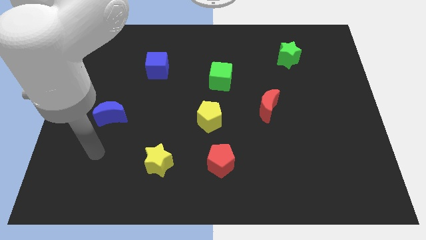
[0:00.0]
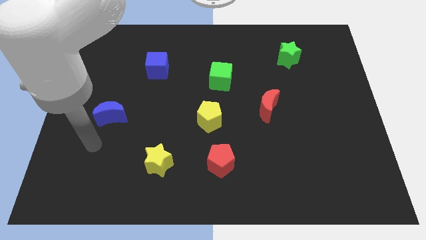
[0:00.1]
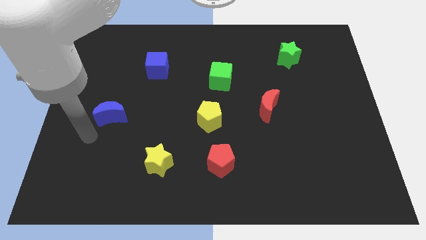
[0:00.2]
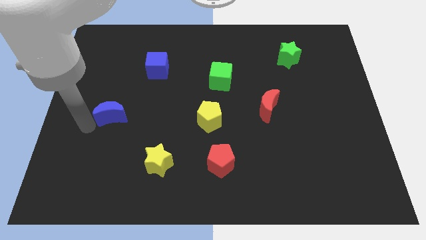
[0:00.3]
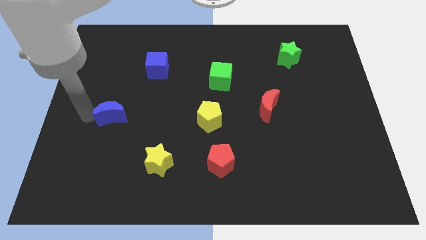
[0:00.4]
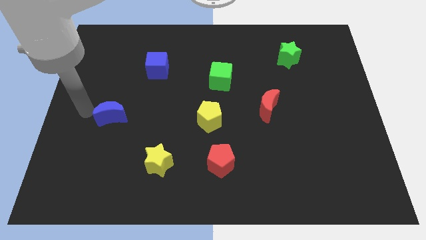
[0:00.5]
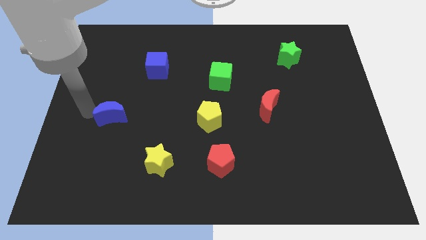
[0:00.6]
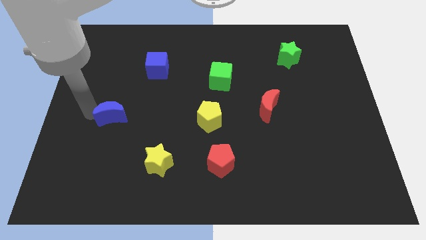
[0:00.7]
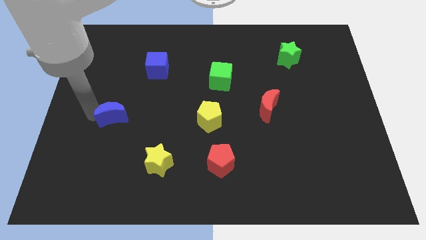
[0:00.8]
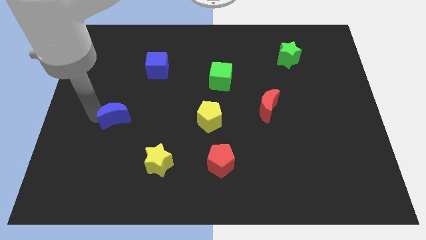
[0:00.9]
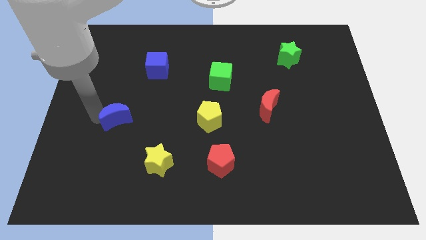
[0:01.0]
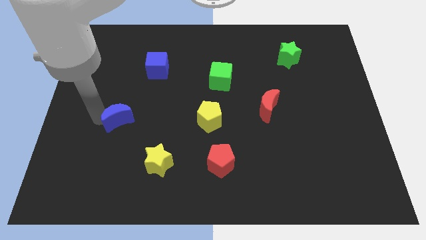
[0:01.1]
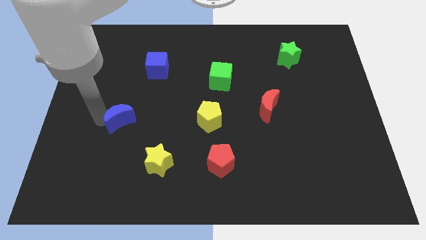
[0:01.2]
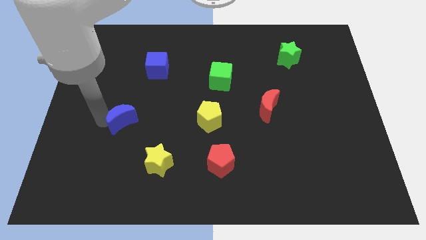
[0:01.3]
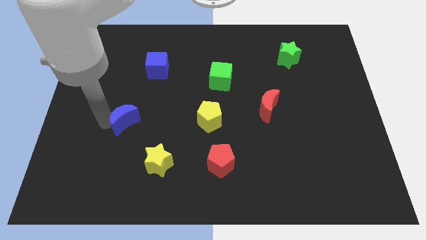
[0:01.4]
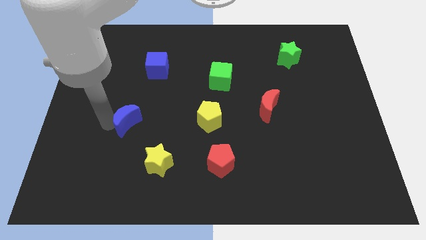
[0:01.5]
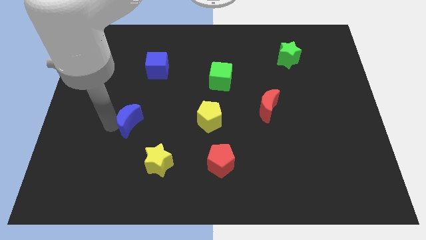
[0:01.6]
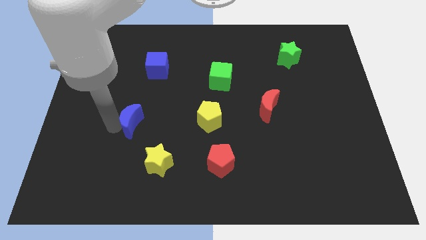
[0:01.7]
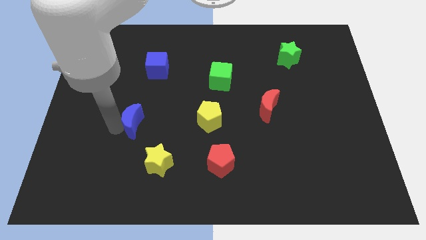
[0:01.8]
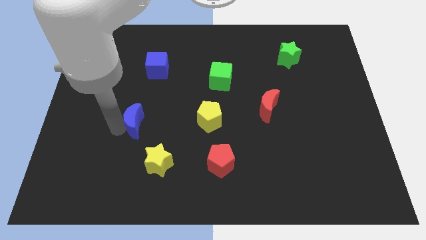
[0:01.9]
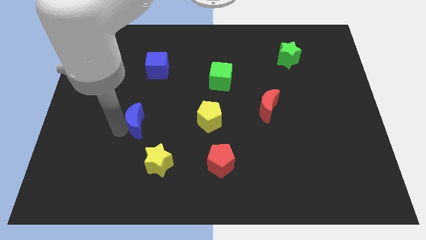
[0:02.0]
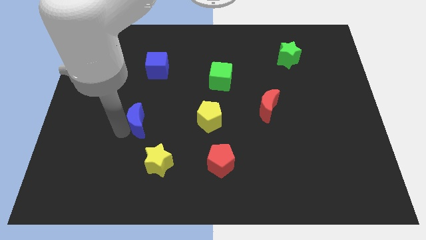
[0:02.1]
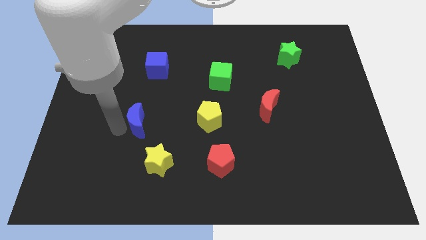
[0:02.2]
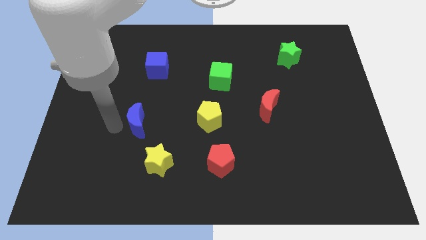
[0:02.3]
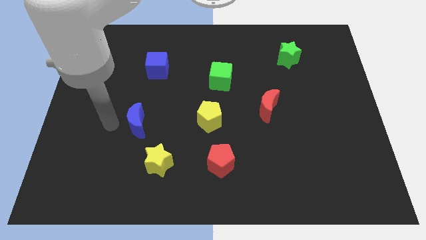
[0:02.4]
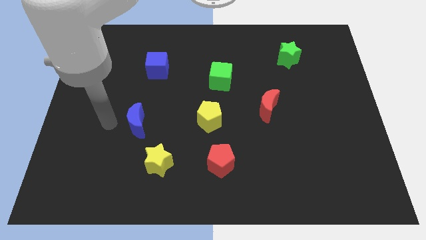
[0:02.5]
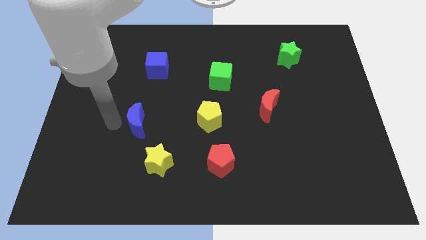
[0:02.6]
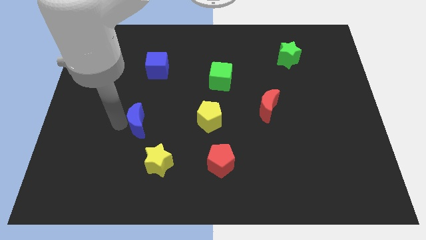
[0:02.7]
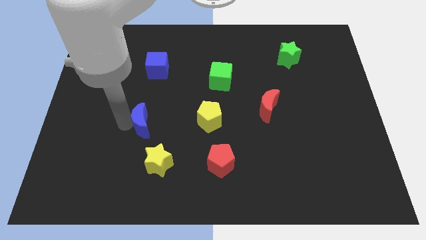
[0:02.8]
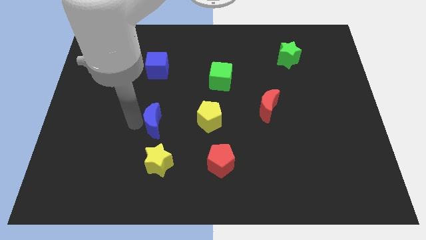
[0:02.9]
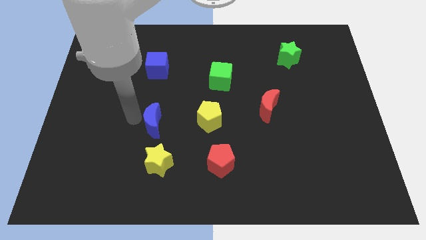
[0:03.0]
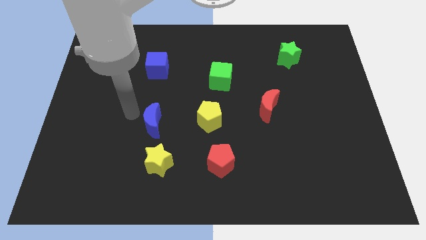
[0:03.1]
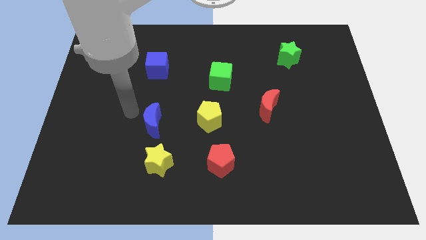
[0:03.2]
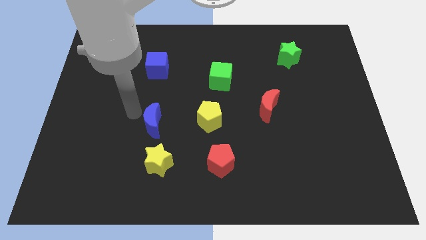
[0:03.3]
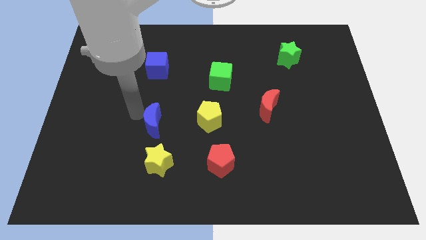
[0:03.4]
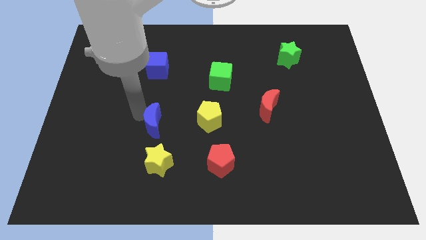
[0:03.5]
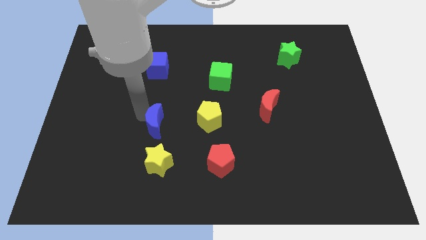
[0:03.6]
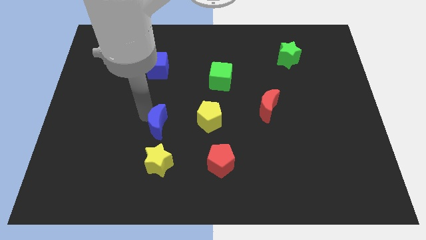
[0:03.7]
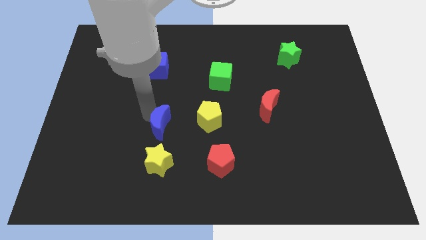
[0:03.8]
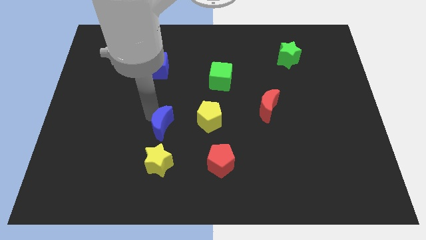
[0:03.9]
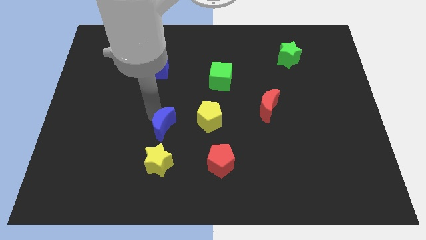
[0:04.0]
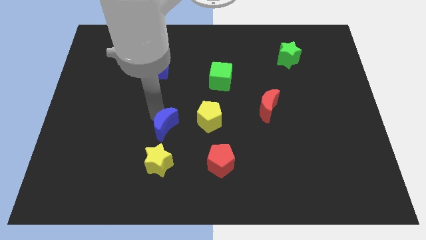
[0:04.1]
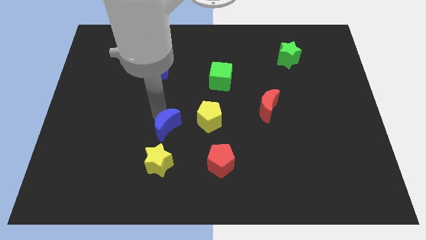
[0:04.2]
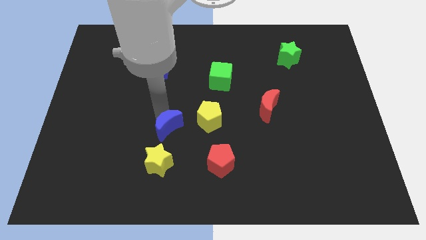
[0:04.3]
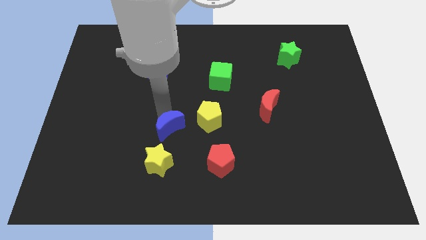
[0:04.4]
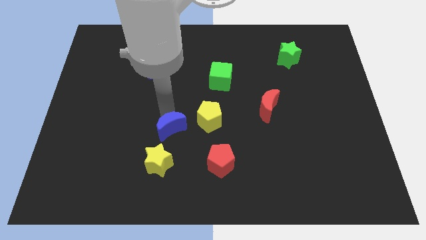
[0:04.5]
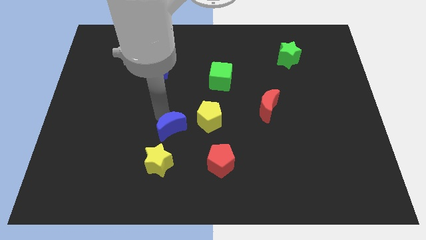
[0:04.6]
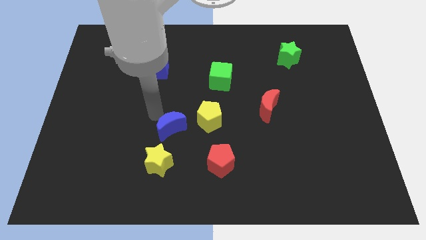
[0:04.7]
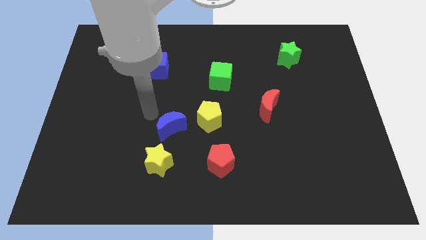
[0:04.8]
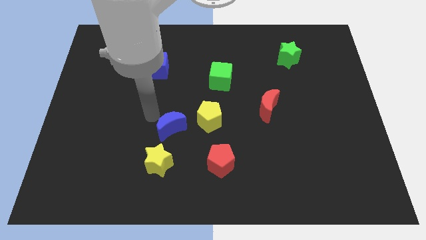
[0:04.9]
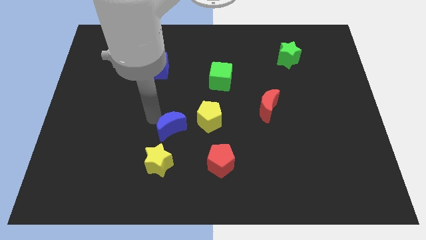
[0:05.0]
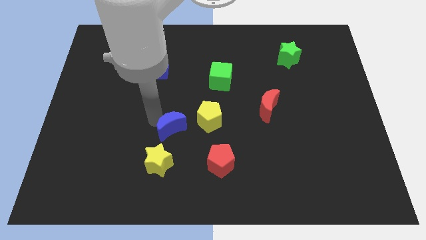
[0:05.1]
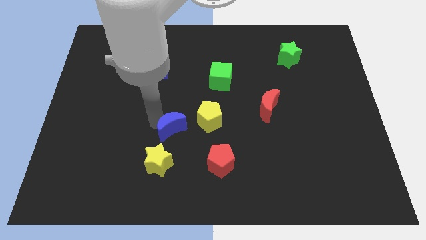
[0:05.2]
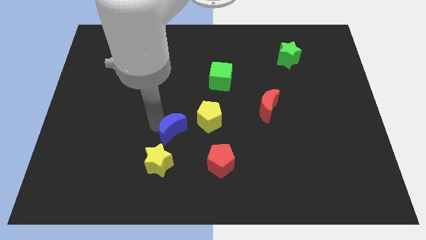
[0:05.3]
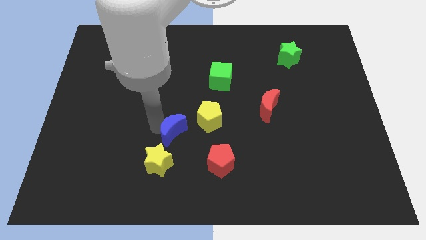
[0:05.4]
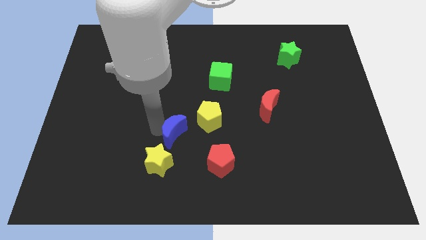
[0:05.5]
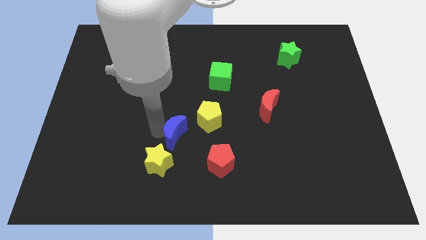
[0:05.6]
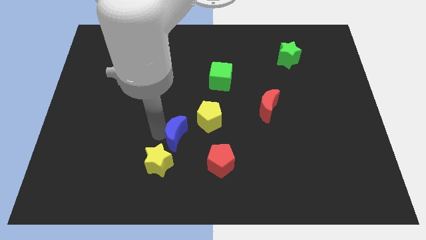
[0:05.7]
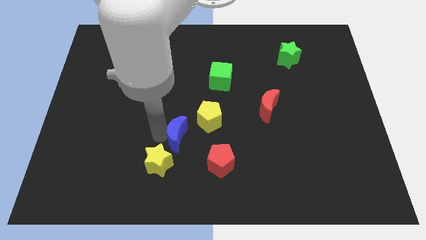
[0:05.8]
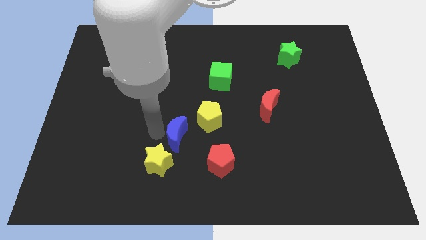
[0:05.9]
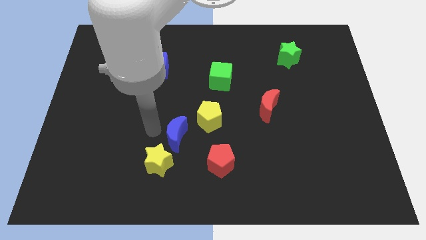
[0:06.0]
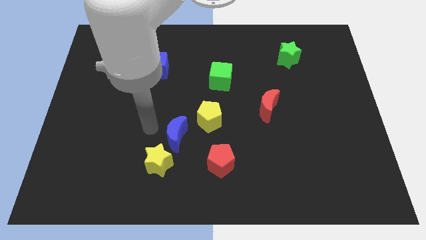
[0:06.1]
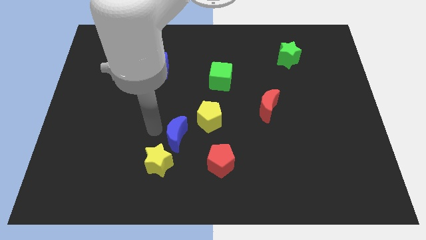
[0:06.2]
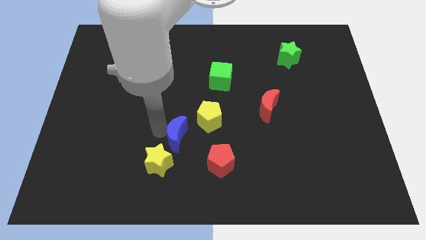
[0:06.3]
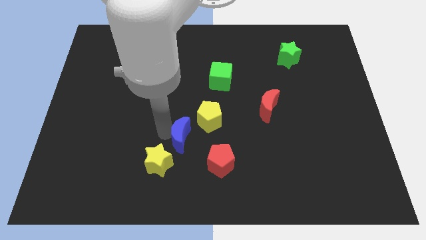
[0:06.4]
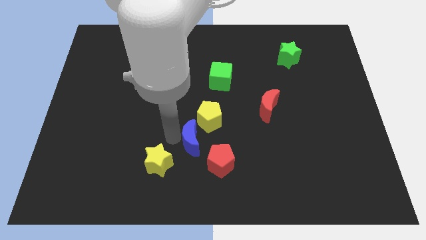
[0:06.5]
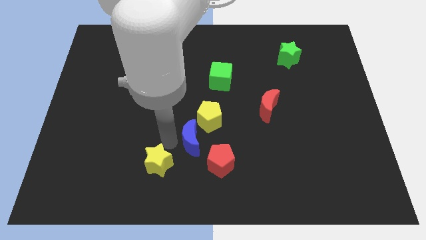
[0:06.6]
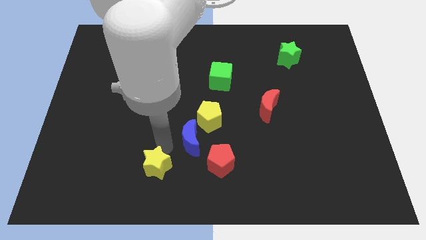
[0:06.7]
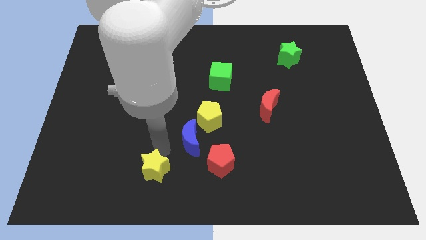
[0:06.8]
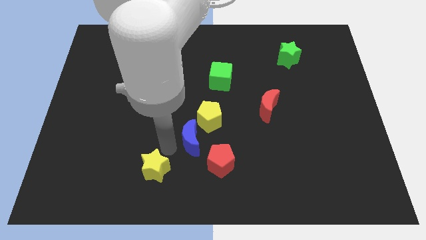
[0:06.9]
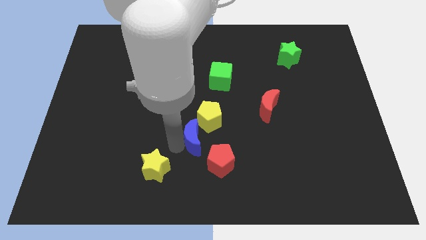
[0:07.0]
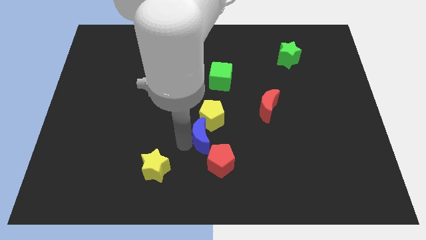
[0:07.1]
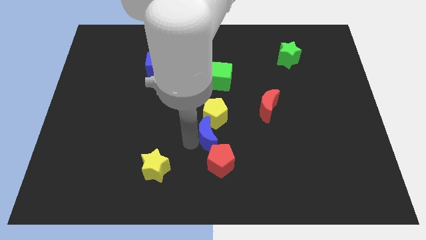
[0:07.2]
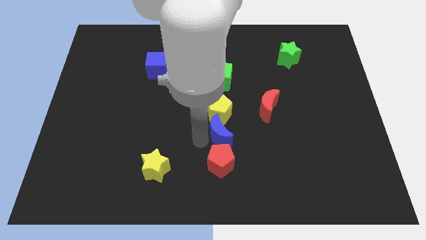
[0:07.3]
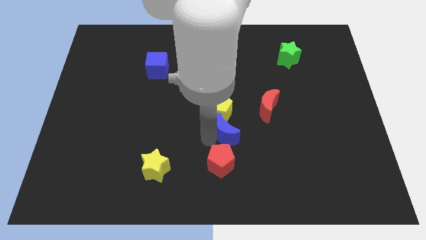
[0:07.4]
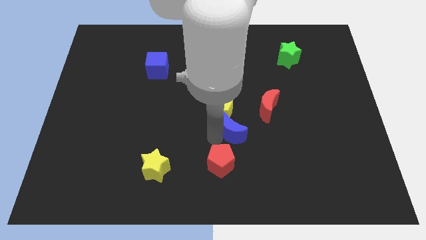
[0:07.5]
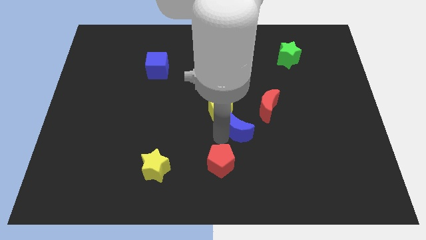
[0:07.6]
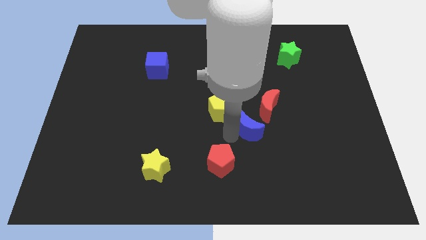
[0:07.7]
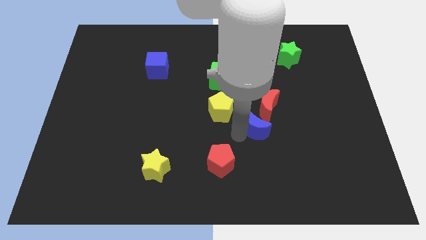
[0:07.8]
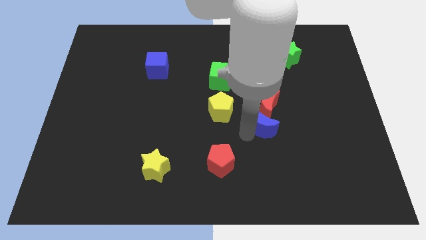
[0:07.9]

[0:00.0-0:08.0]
move the blue moon to the right of the yellow pentagon
